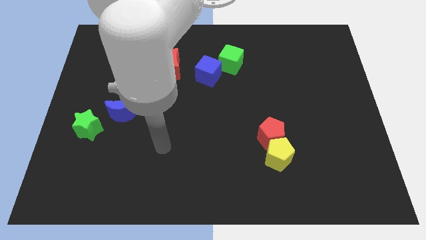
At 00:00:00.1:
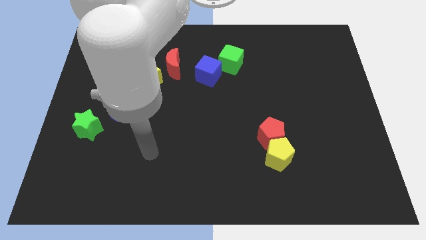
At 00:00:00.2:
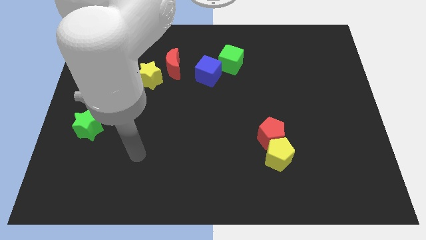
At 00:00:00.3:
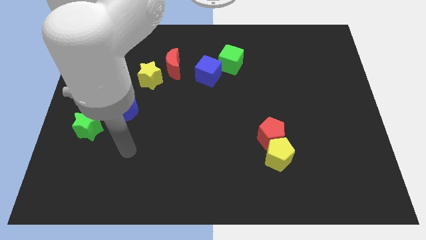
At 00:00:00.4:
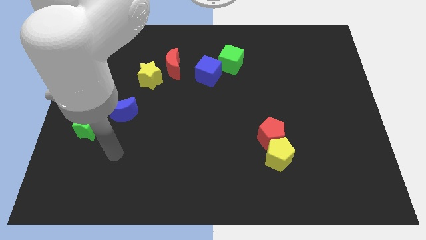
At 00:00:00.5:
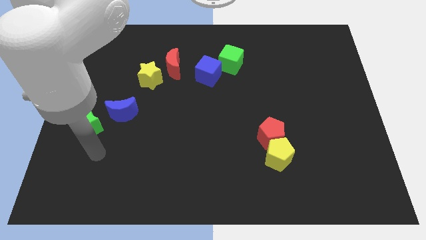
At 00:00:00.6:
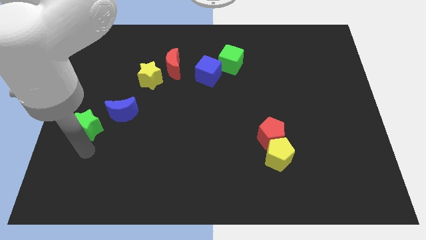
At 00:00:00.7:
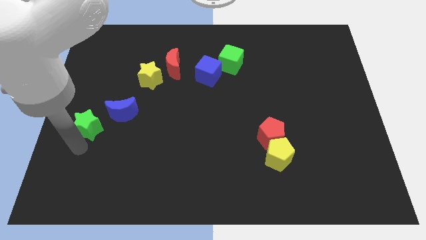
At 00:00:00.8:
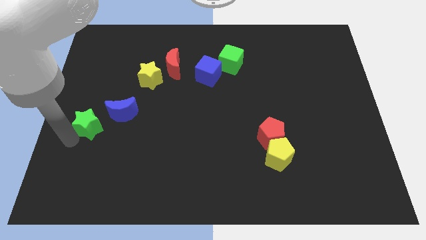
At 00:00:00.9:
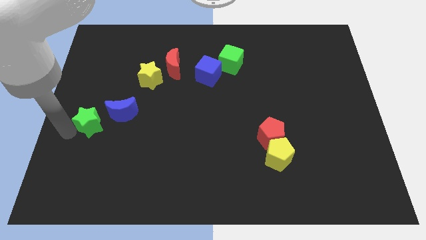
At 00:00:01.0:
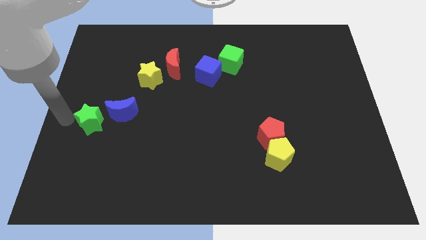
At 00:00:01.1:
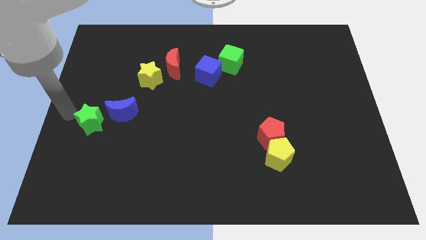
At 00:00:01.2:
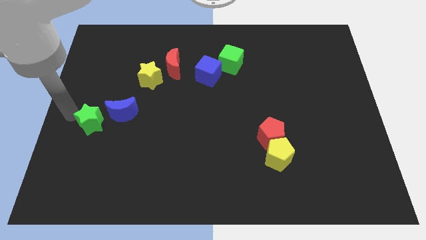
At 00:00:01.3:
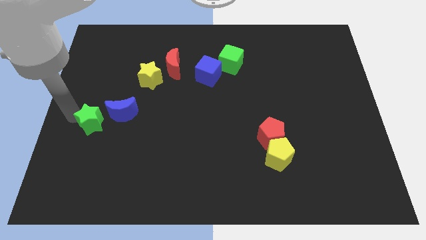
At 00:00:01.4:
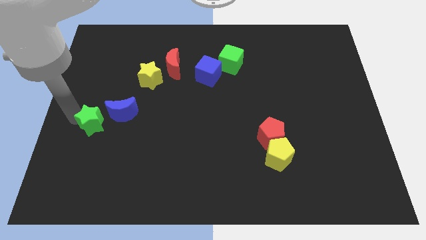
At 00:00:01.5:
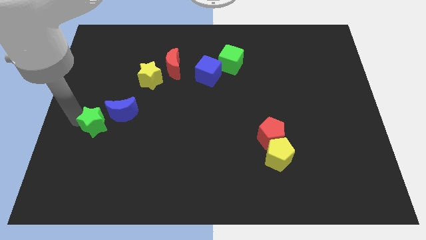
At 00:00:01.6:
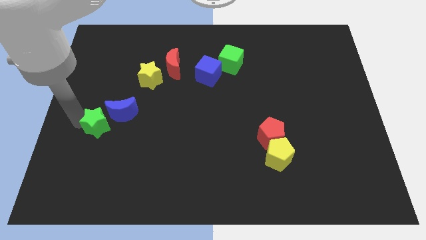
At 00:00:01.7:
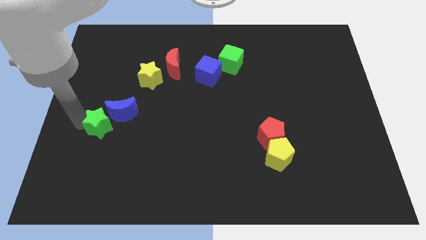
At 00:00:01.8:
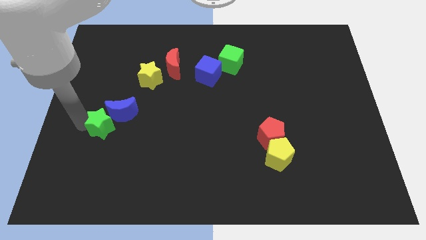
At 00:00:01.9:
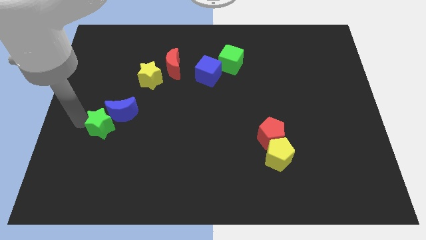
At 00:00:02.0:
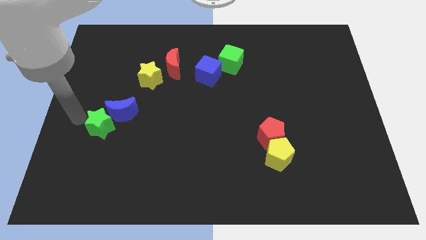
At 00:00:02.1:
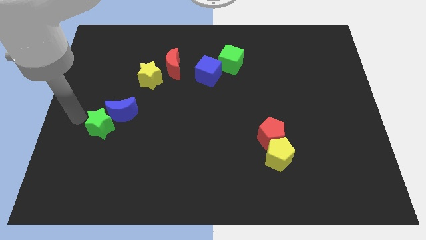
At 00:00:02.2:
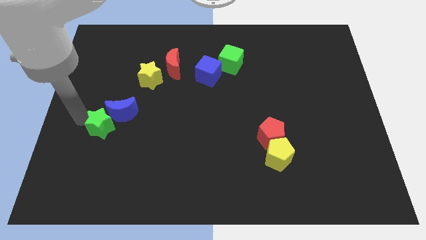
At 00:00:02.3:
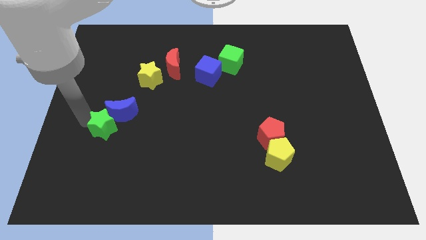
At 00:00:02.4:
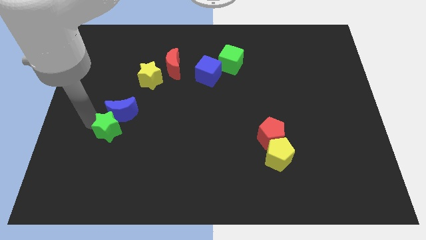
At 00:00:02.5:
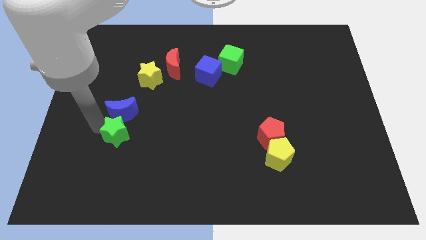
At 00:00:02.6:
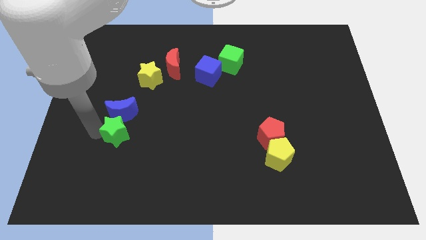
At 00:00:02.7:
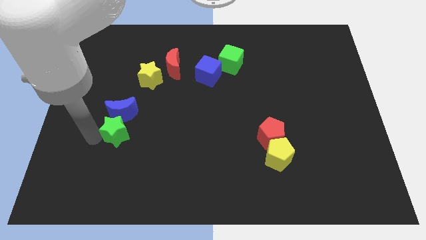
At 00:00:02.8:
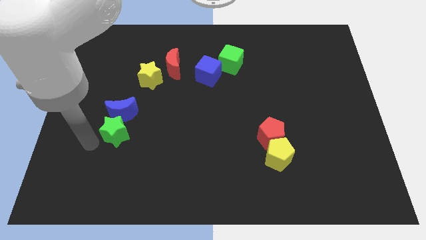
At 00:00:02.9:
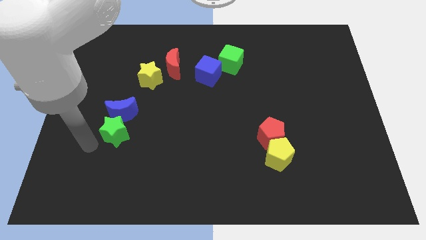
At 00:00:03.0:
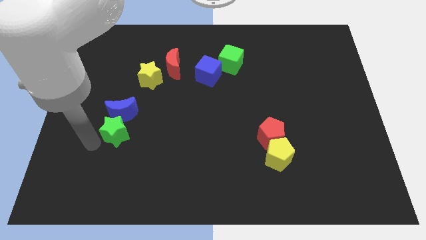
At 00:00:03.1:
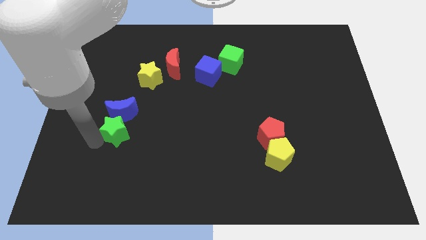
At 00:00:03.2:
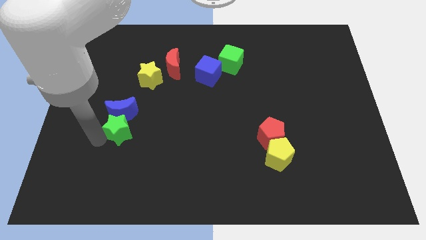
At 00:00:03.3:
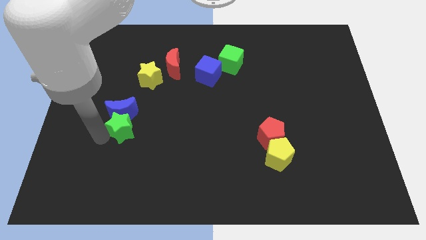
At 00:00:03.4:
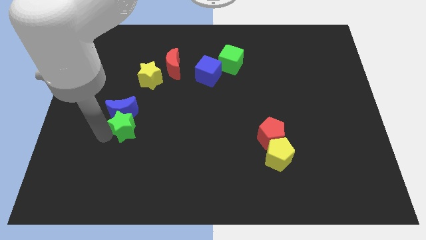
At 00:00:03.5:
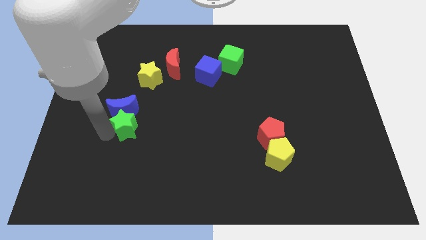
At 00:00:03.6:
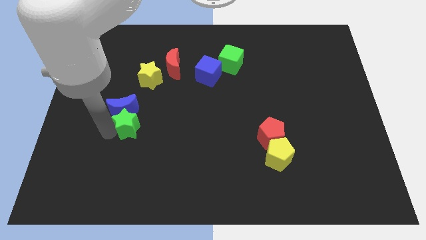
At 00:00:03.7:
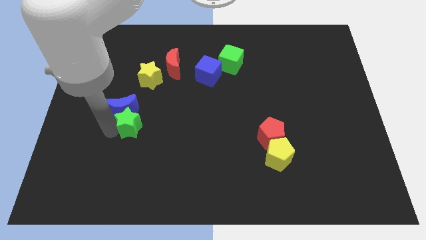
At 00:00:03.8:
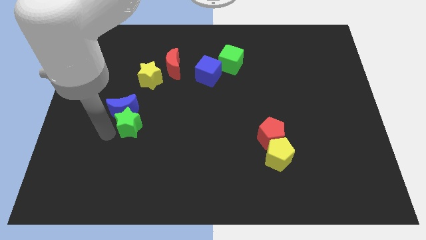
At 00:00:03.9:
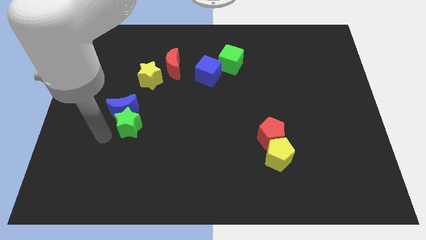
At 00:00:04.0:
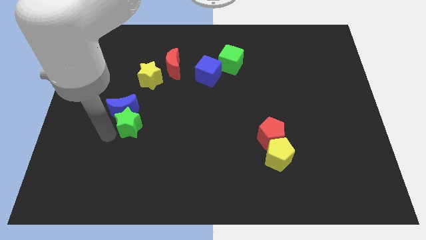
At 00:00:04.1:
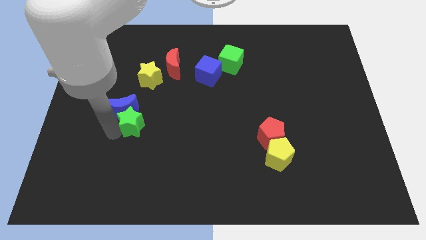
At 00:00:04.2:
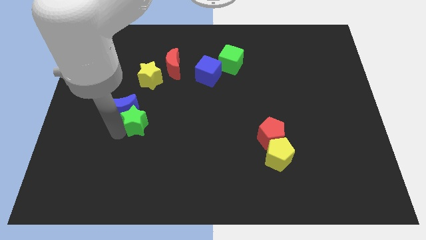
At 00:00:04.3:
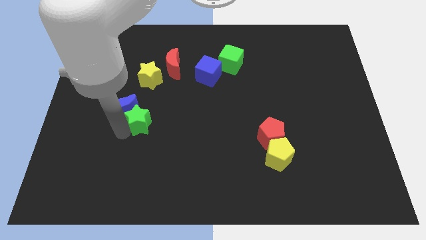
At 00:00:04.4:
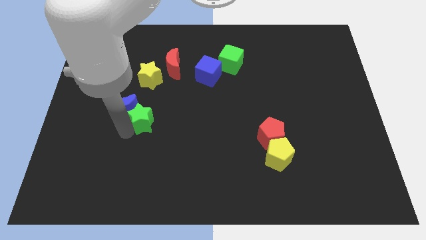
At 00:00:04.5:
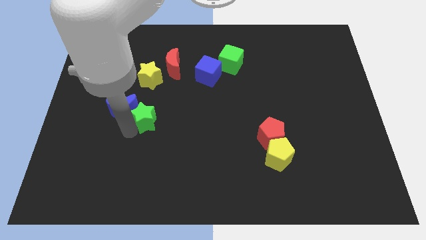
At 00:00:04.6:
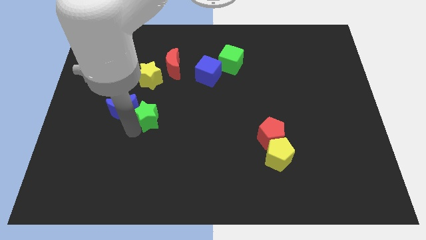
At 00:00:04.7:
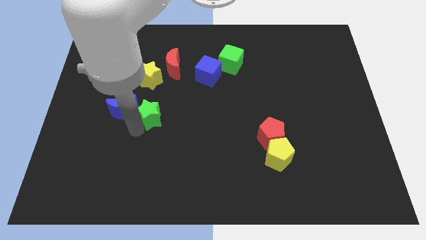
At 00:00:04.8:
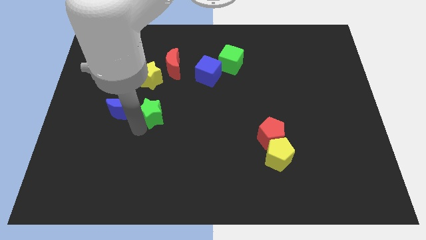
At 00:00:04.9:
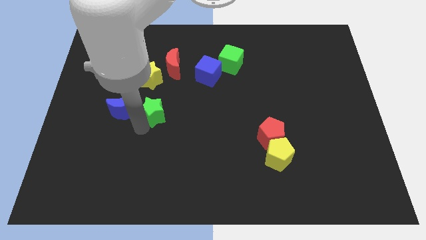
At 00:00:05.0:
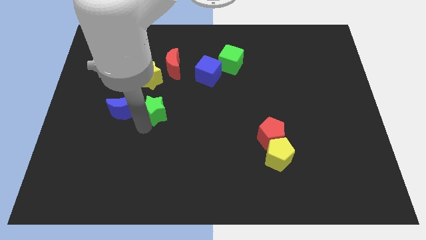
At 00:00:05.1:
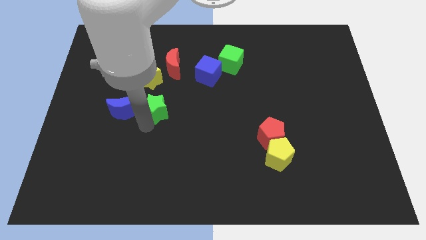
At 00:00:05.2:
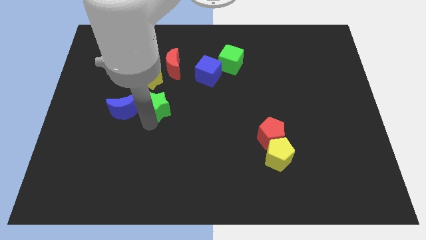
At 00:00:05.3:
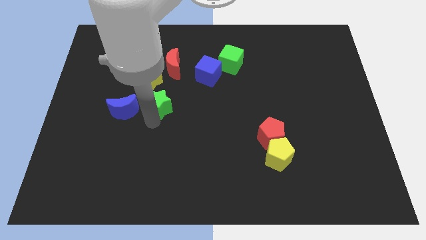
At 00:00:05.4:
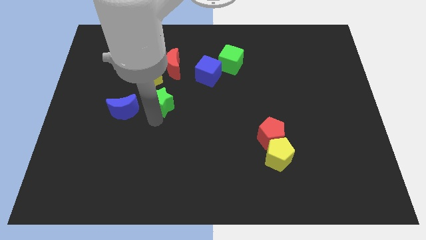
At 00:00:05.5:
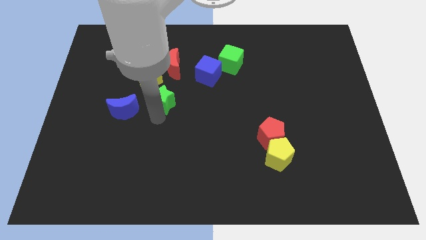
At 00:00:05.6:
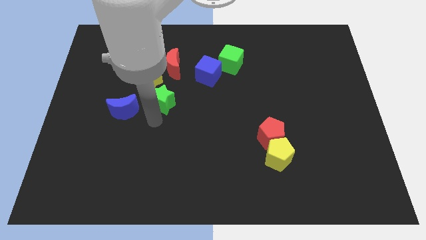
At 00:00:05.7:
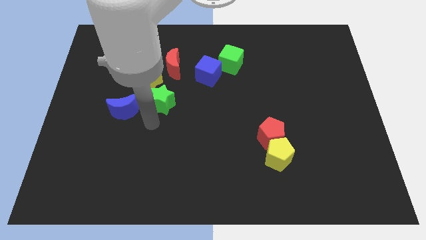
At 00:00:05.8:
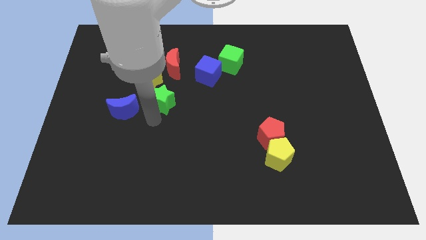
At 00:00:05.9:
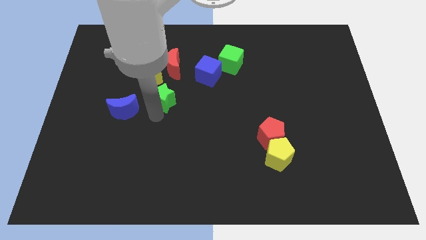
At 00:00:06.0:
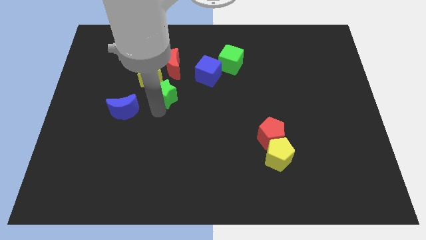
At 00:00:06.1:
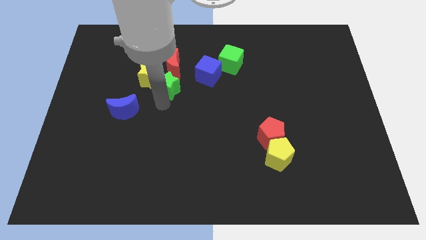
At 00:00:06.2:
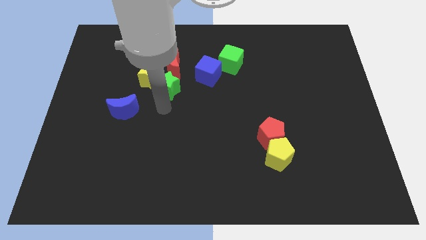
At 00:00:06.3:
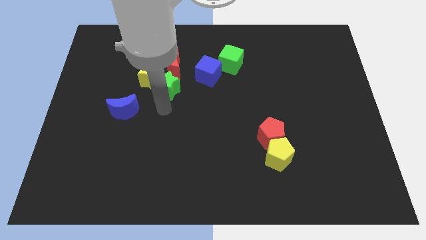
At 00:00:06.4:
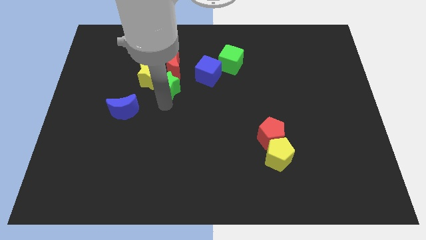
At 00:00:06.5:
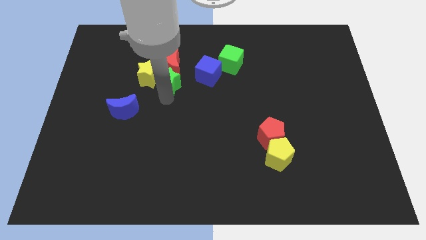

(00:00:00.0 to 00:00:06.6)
move the green star next to the red moon

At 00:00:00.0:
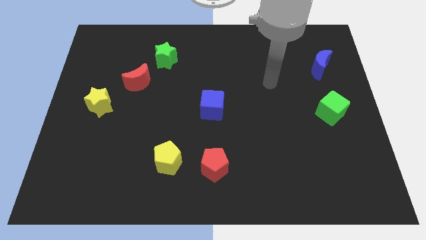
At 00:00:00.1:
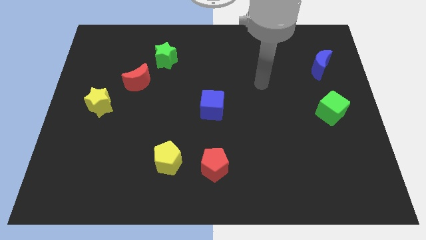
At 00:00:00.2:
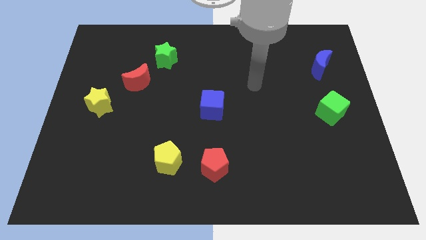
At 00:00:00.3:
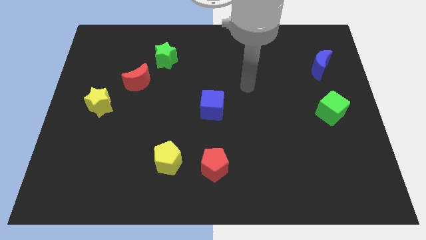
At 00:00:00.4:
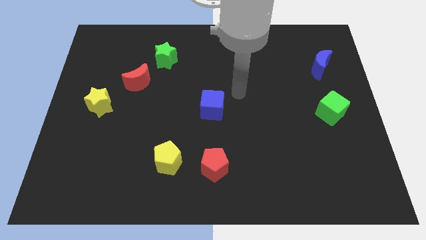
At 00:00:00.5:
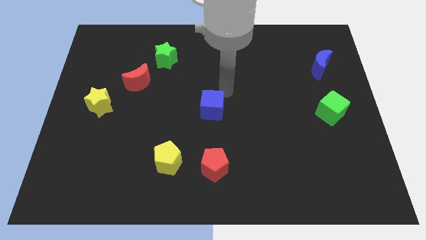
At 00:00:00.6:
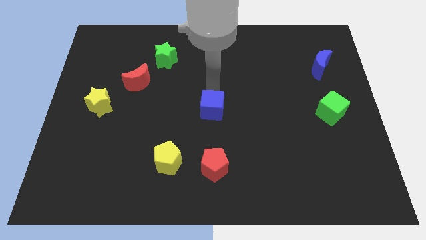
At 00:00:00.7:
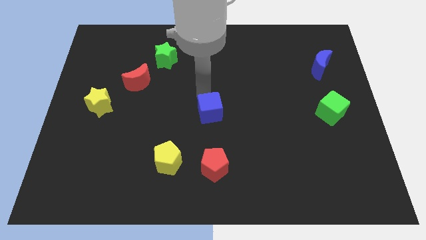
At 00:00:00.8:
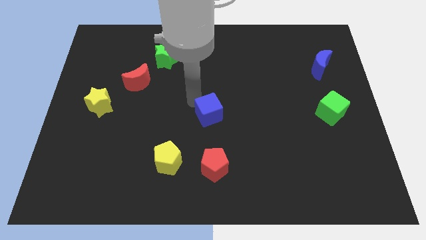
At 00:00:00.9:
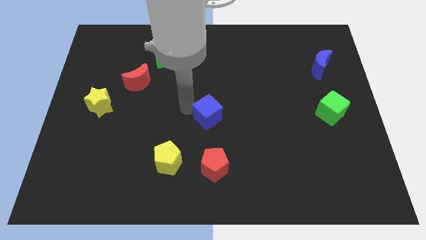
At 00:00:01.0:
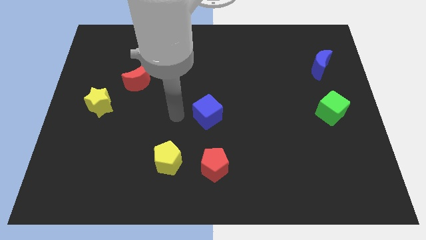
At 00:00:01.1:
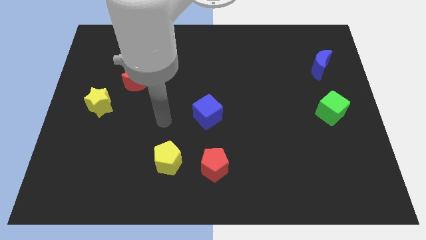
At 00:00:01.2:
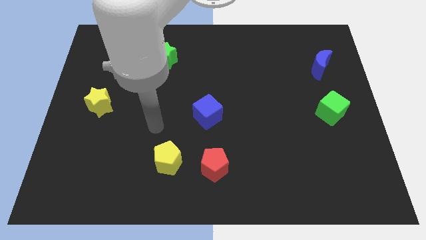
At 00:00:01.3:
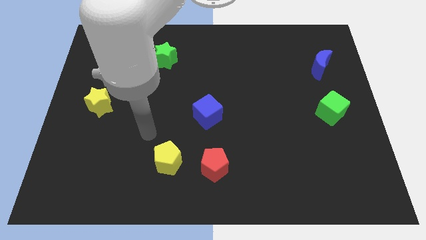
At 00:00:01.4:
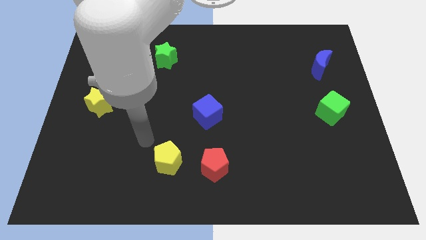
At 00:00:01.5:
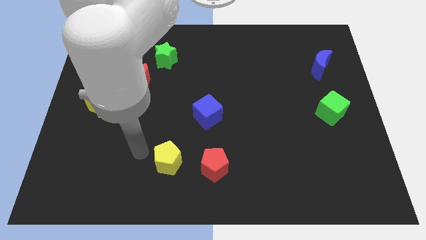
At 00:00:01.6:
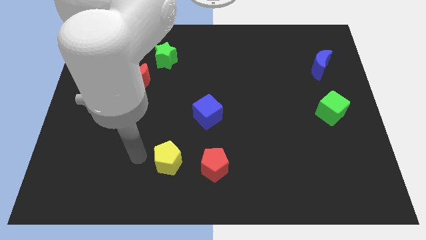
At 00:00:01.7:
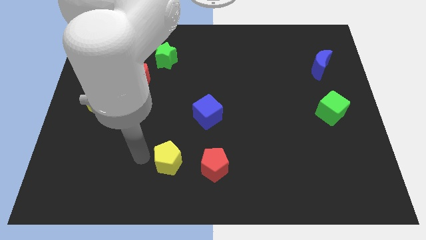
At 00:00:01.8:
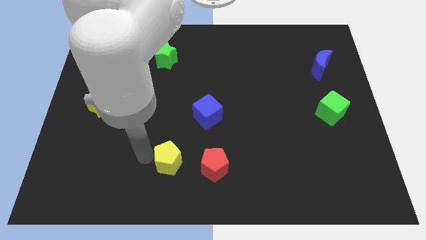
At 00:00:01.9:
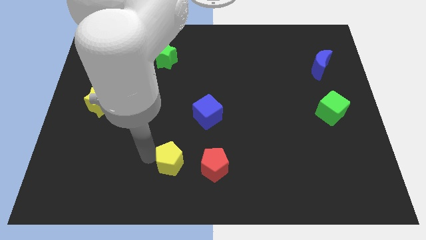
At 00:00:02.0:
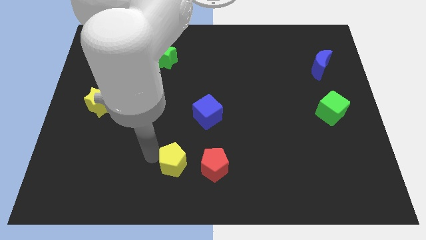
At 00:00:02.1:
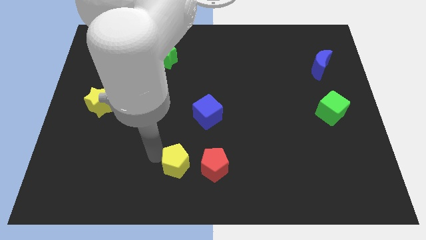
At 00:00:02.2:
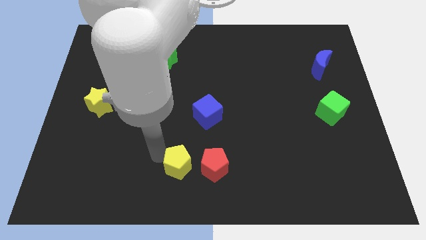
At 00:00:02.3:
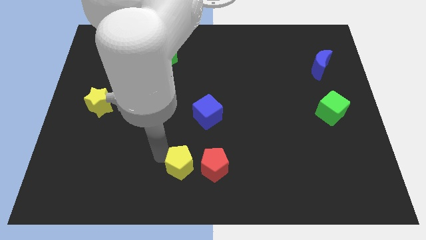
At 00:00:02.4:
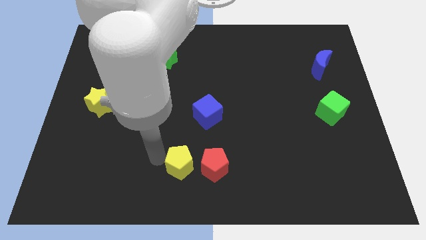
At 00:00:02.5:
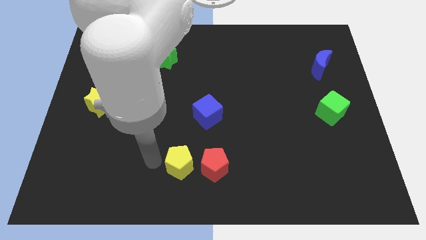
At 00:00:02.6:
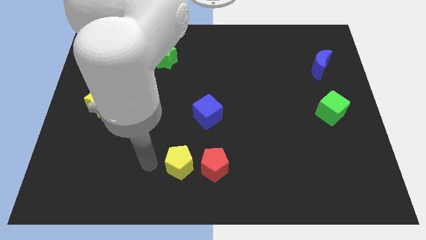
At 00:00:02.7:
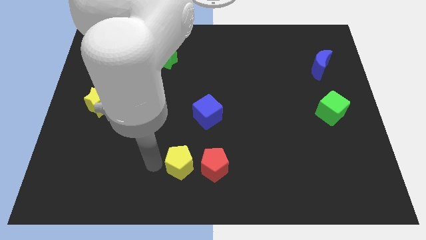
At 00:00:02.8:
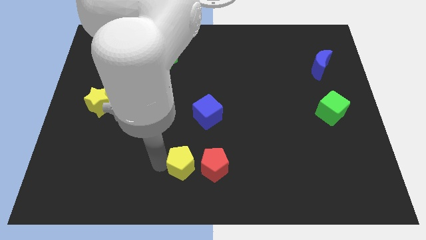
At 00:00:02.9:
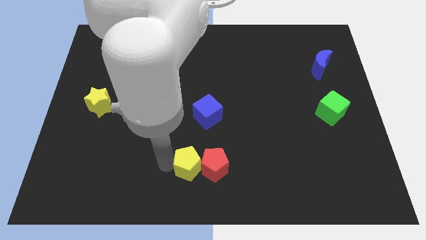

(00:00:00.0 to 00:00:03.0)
slide the yellow pentagon next to the red pentagon
